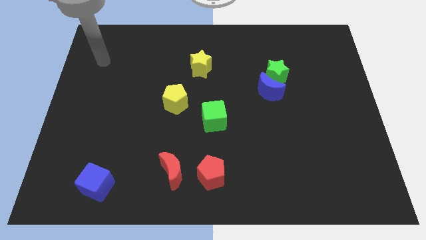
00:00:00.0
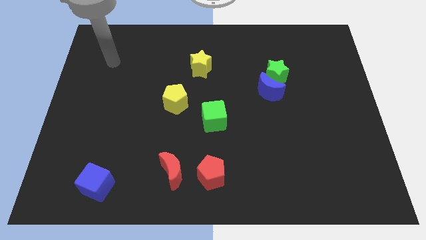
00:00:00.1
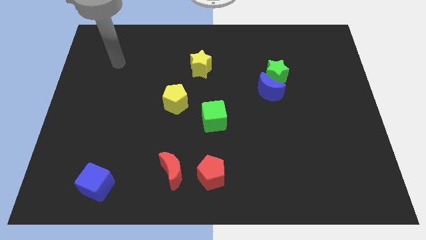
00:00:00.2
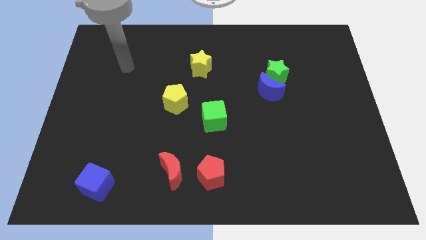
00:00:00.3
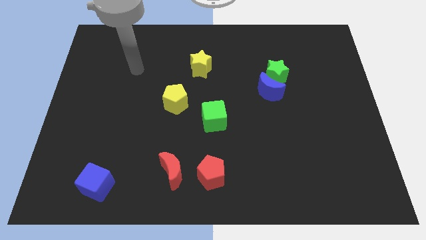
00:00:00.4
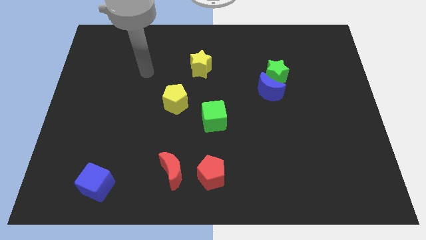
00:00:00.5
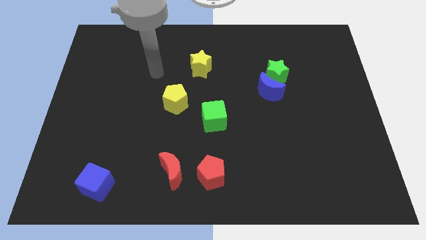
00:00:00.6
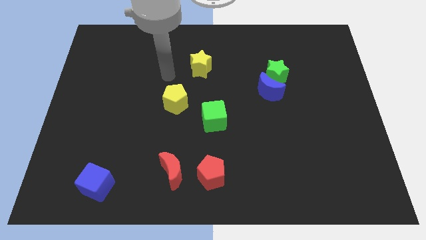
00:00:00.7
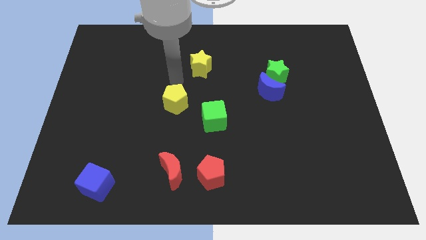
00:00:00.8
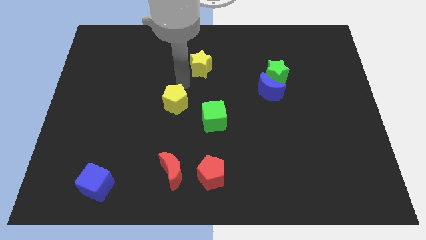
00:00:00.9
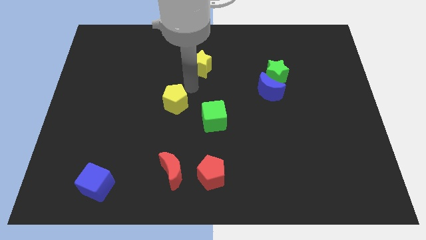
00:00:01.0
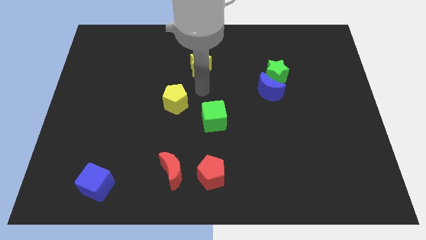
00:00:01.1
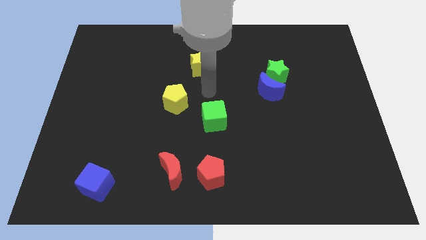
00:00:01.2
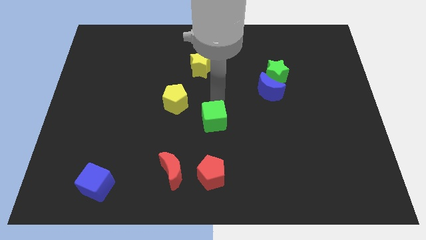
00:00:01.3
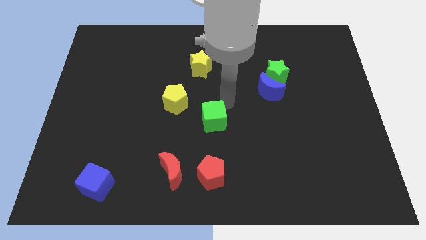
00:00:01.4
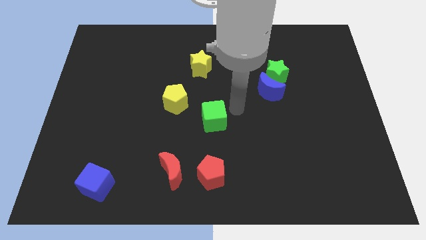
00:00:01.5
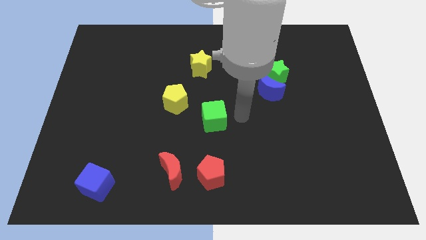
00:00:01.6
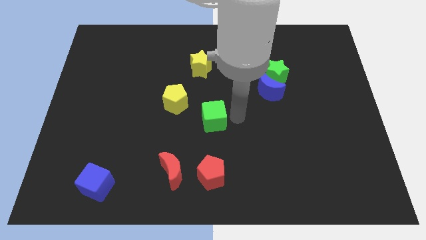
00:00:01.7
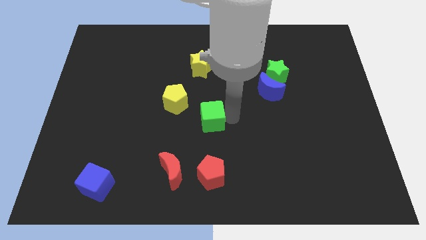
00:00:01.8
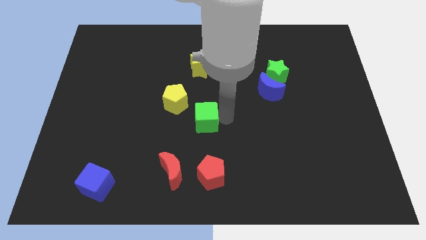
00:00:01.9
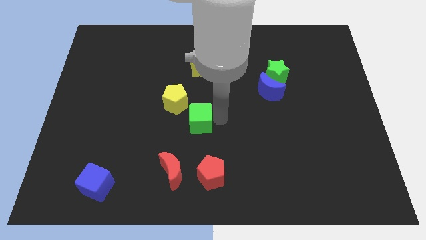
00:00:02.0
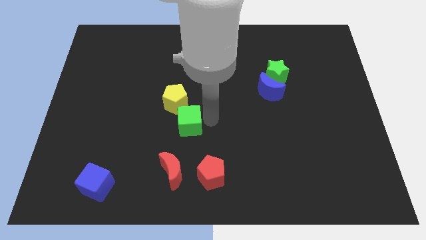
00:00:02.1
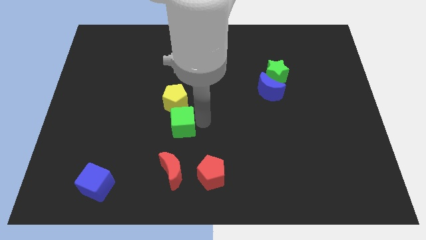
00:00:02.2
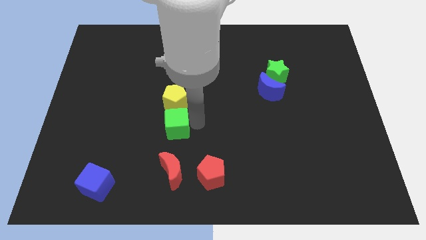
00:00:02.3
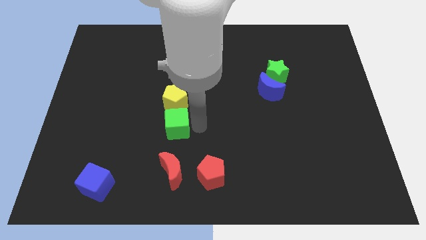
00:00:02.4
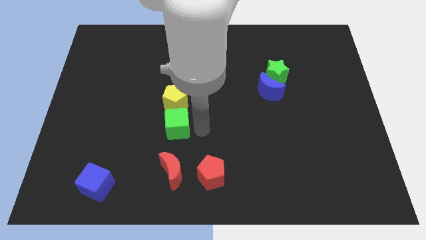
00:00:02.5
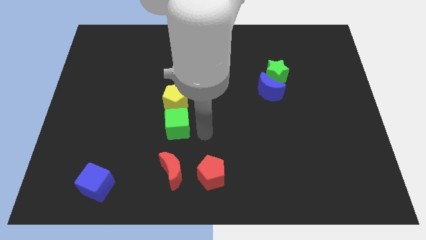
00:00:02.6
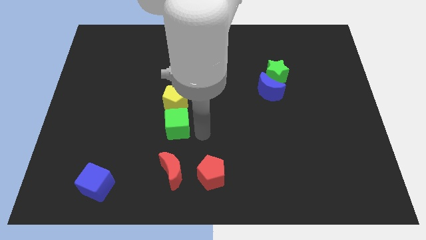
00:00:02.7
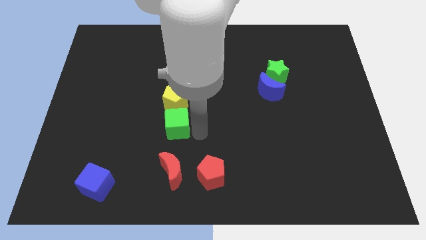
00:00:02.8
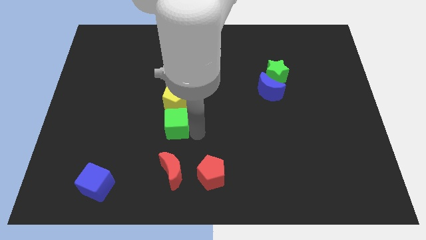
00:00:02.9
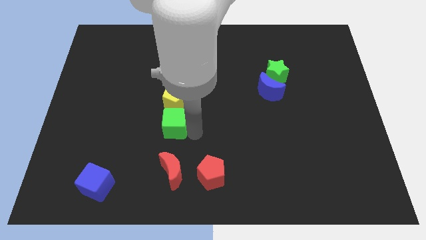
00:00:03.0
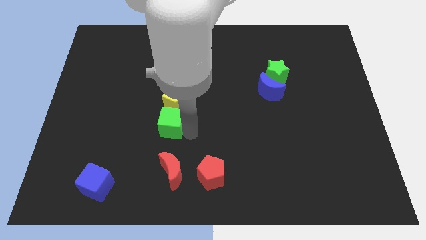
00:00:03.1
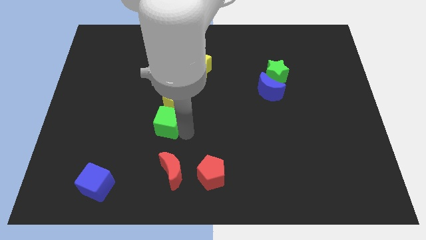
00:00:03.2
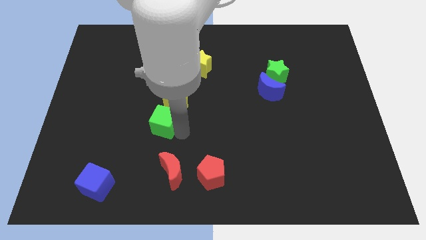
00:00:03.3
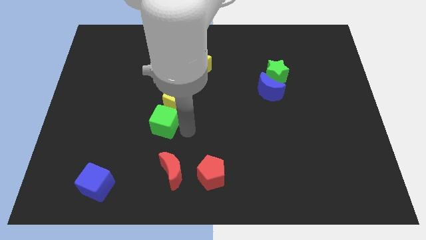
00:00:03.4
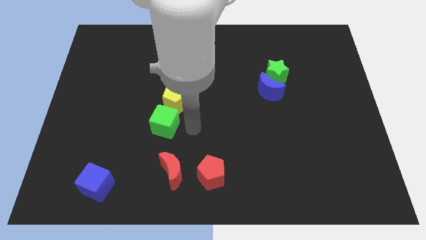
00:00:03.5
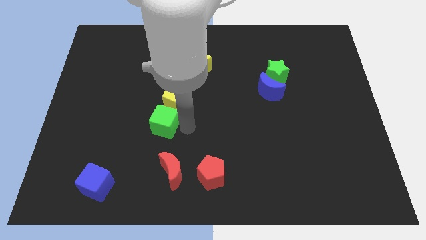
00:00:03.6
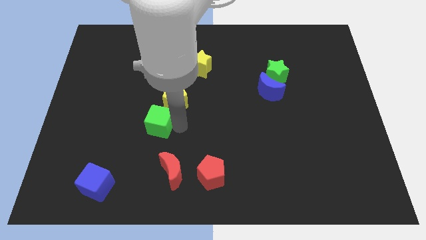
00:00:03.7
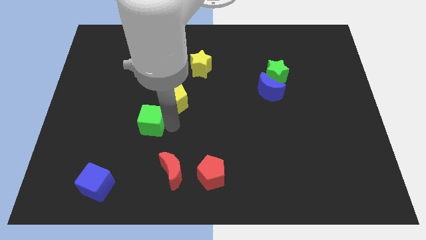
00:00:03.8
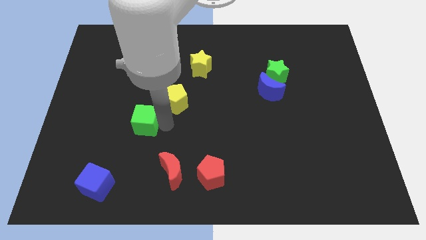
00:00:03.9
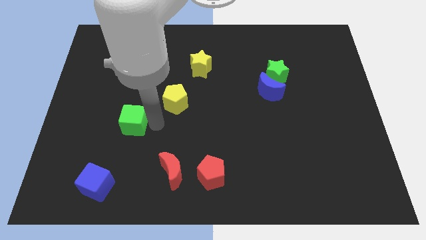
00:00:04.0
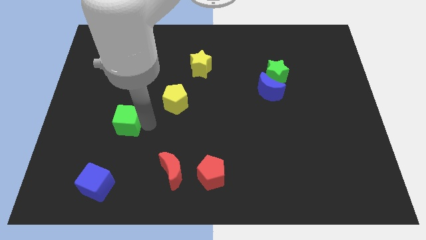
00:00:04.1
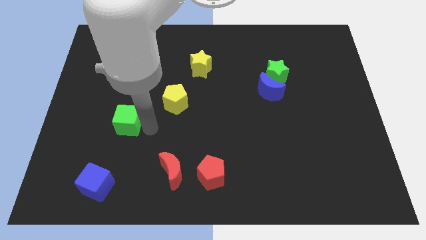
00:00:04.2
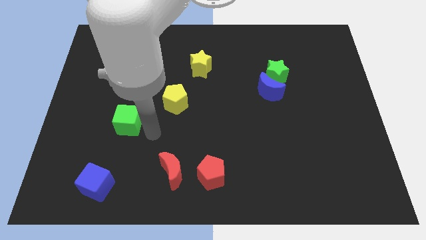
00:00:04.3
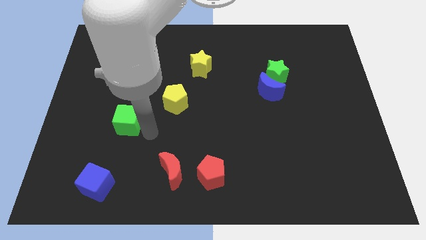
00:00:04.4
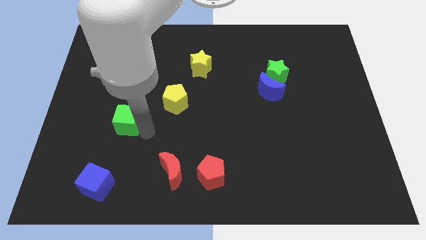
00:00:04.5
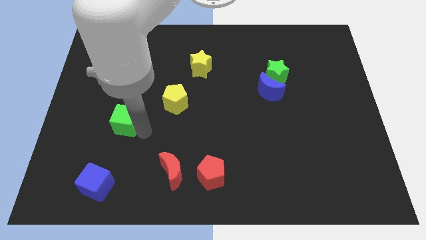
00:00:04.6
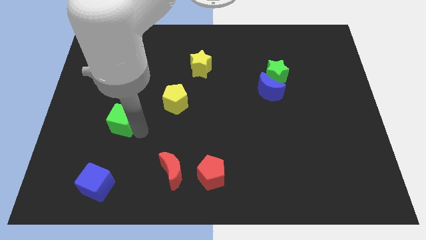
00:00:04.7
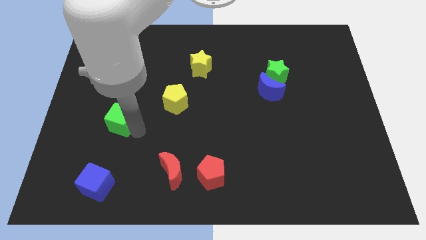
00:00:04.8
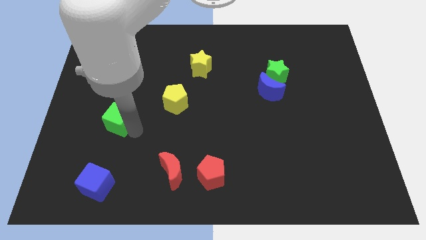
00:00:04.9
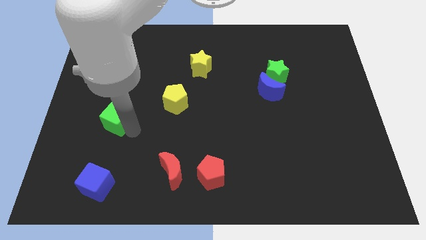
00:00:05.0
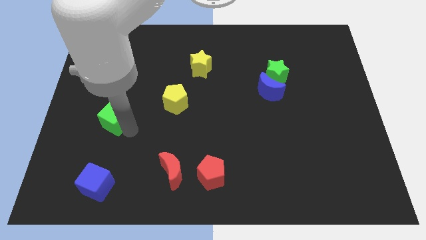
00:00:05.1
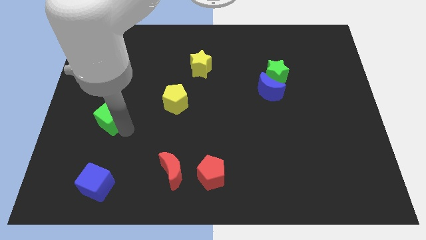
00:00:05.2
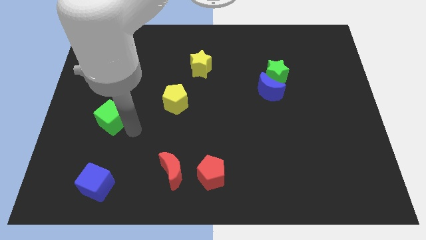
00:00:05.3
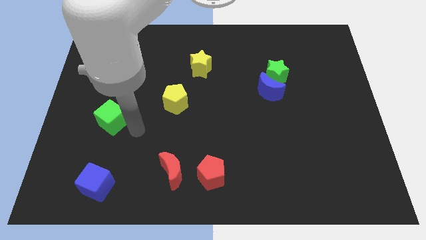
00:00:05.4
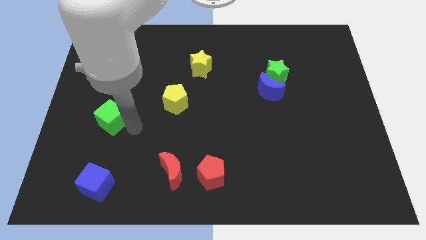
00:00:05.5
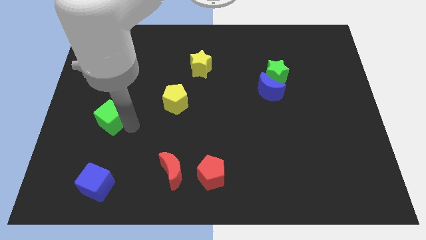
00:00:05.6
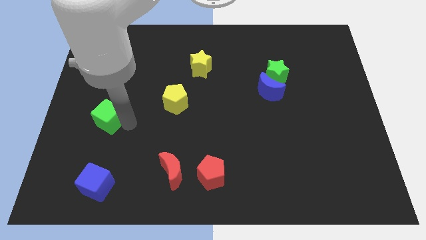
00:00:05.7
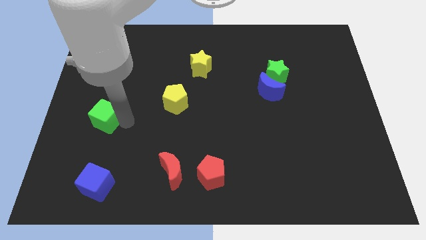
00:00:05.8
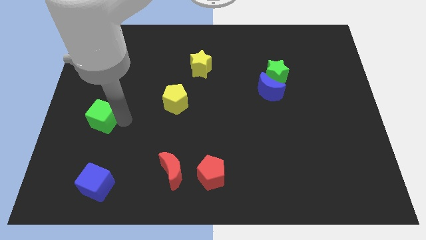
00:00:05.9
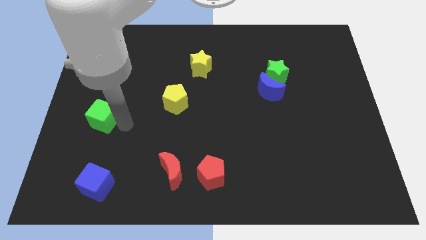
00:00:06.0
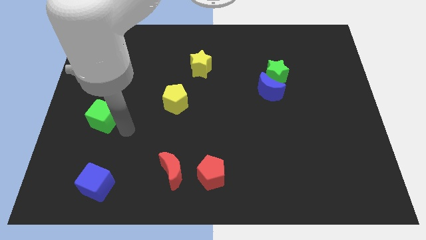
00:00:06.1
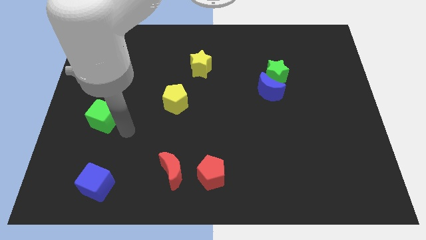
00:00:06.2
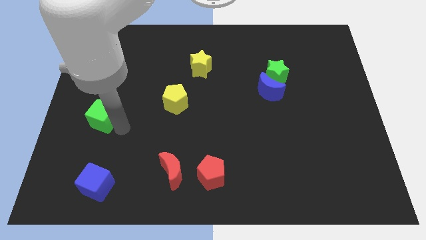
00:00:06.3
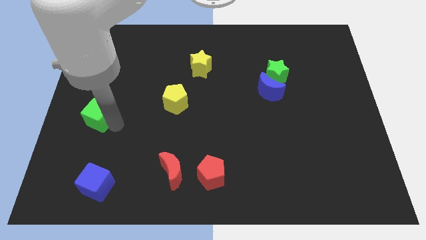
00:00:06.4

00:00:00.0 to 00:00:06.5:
slide the green cube to the center left
